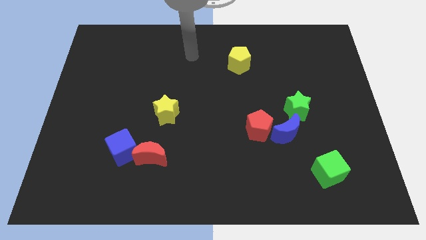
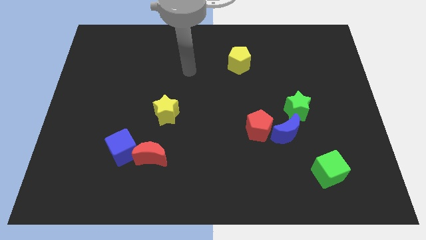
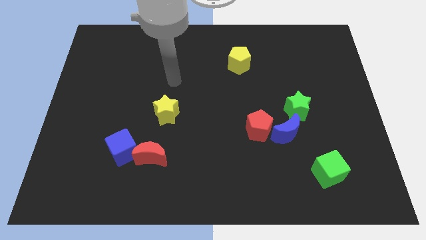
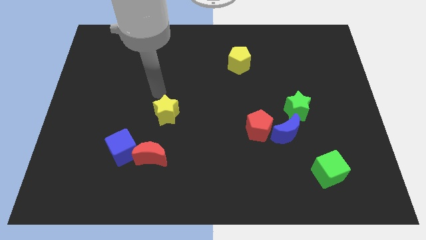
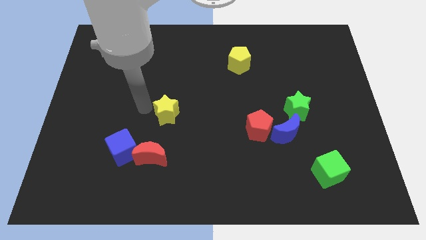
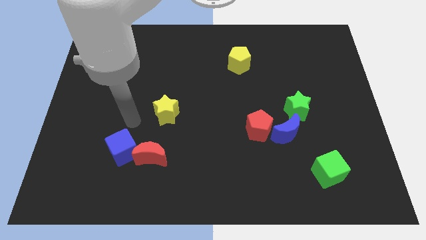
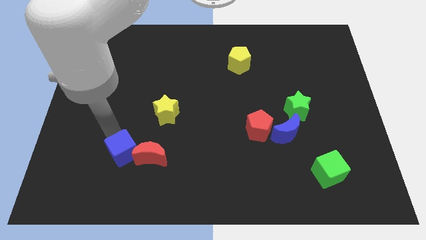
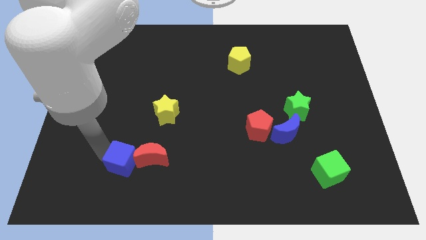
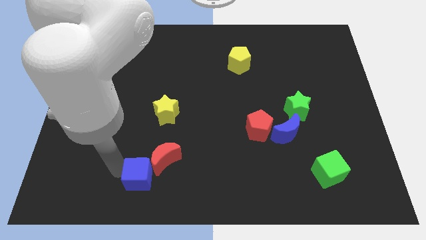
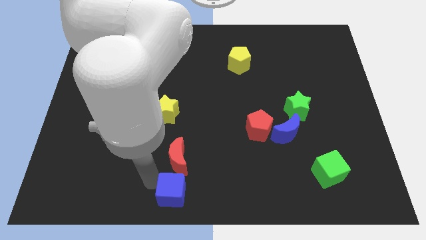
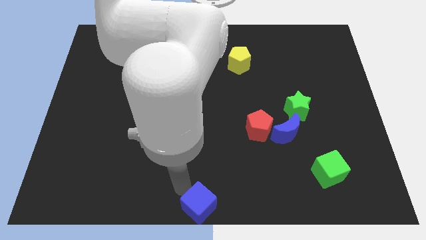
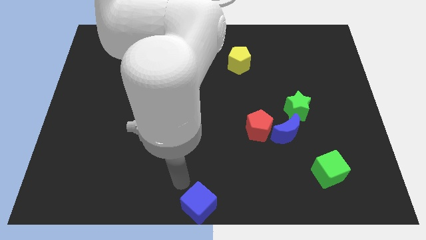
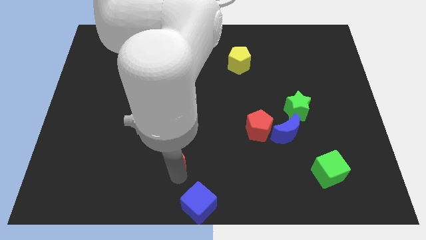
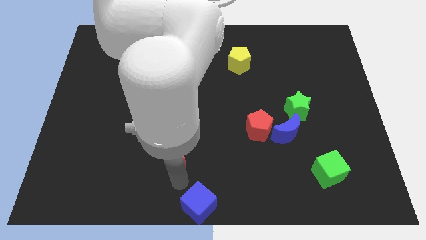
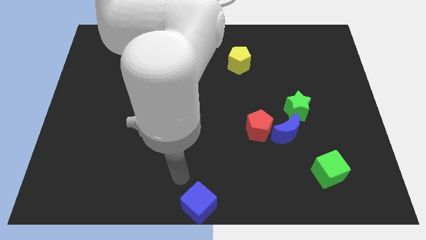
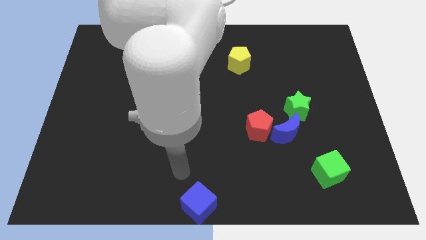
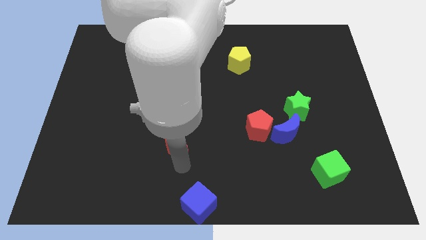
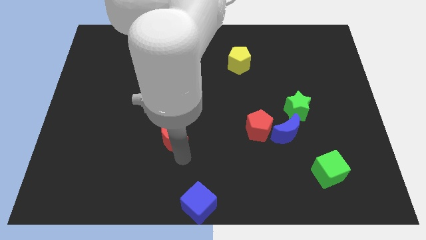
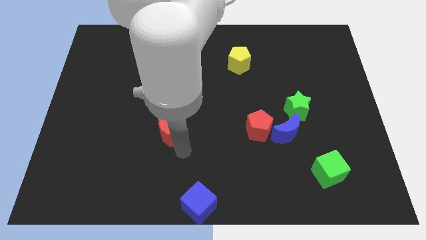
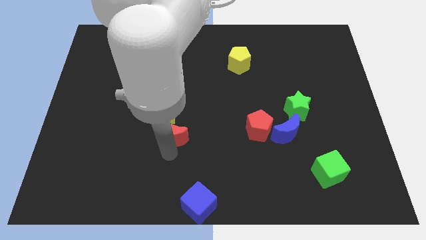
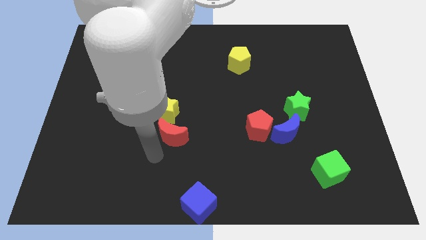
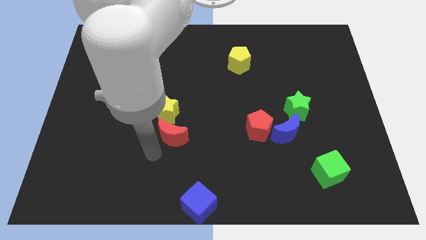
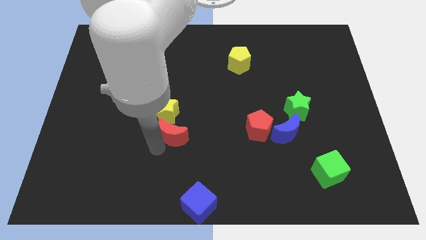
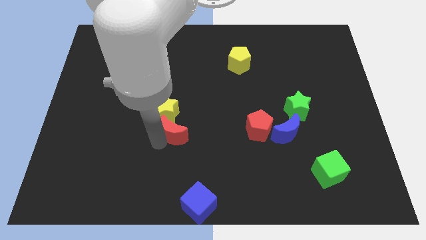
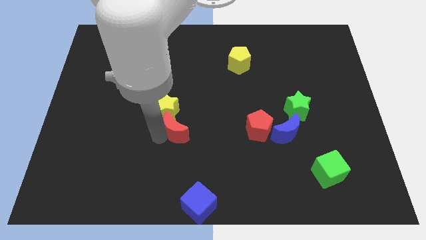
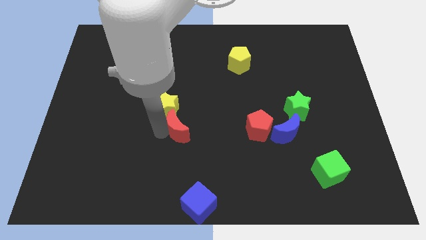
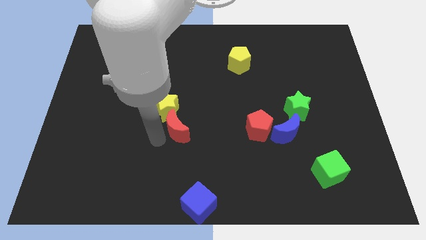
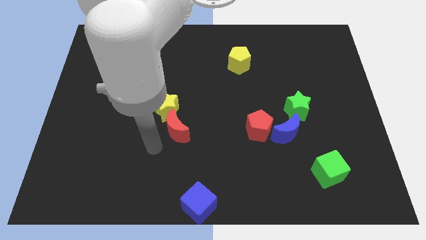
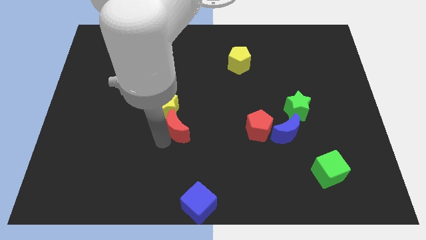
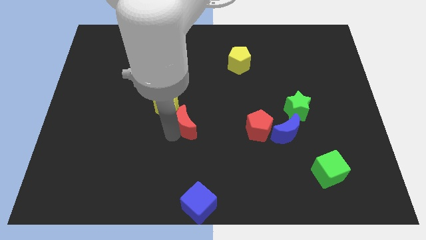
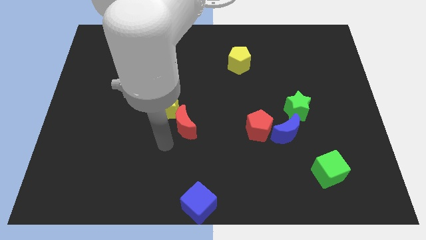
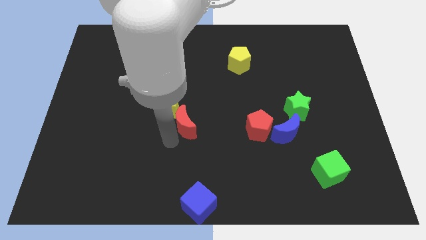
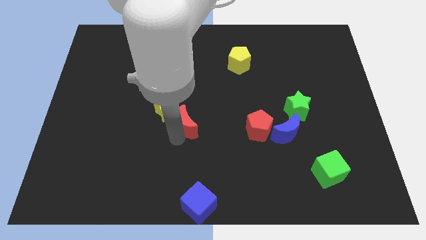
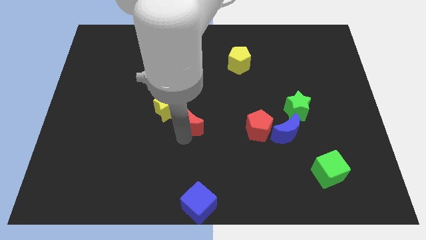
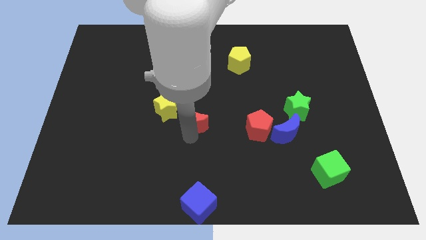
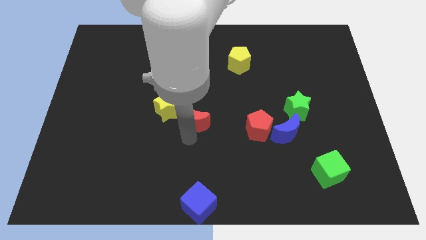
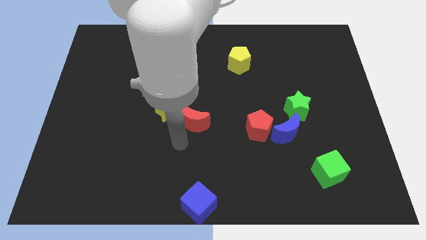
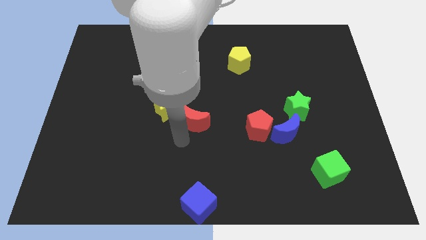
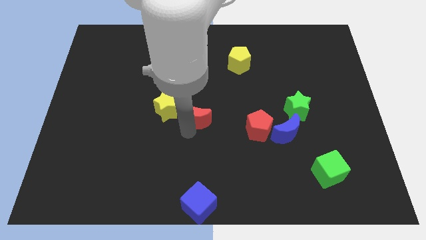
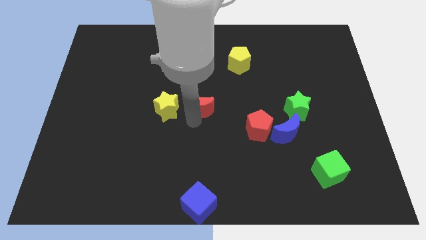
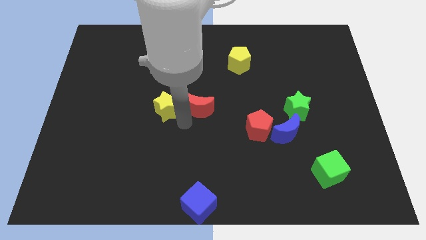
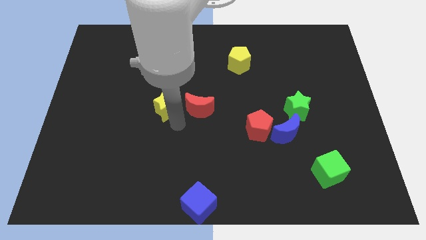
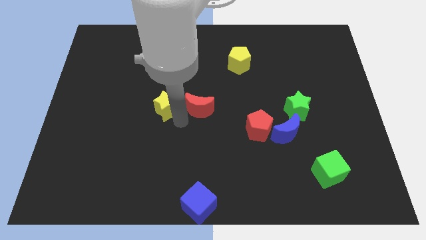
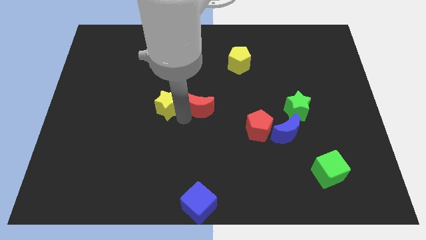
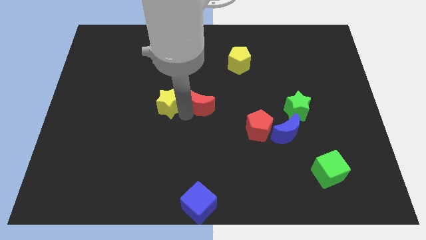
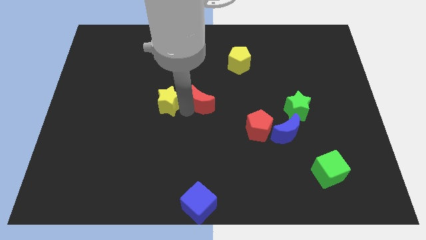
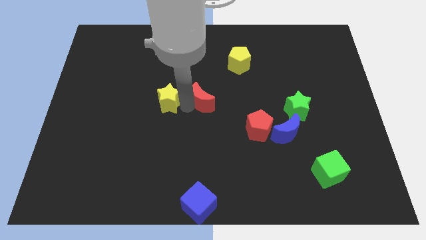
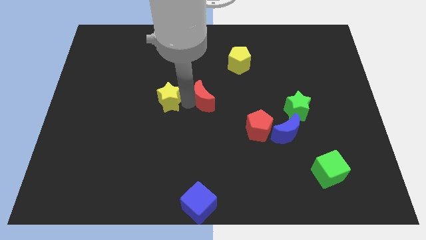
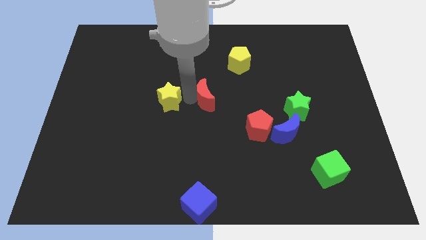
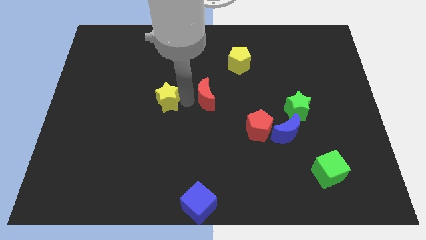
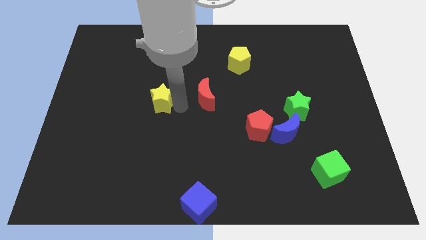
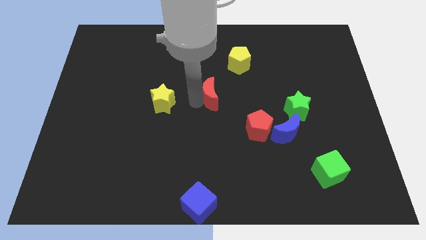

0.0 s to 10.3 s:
slide the red moon upwards and to the right diagonally

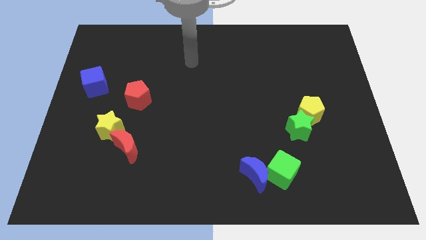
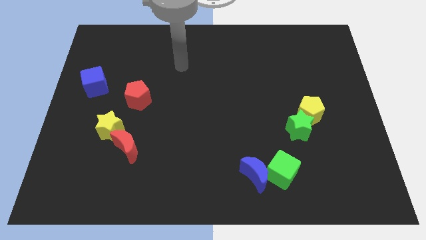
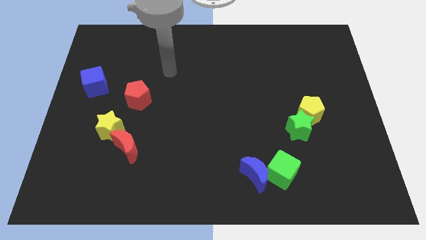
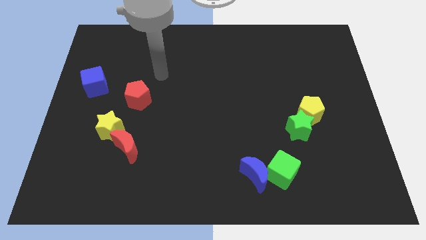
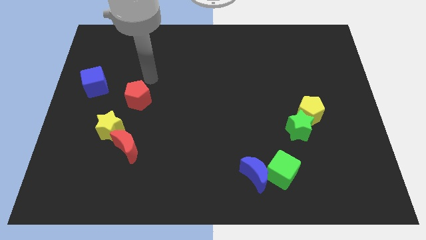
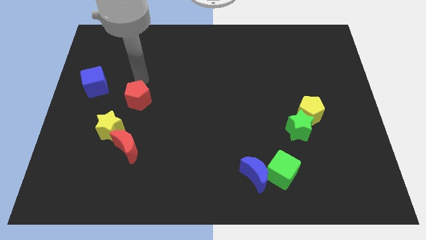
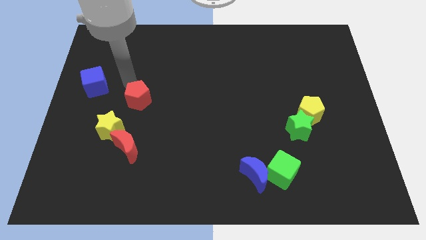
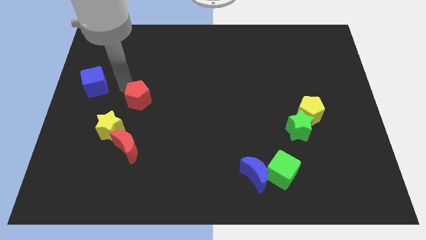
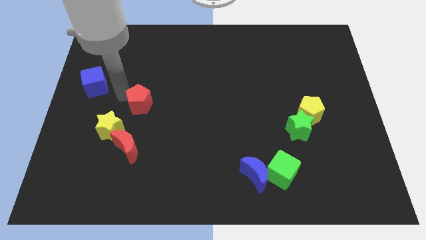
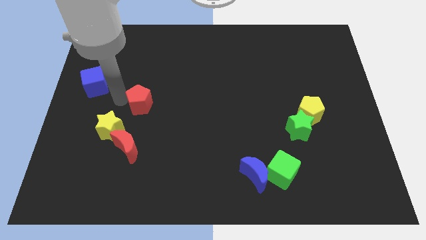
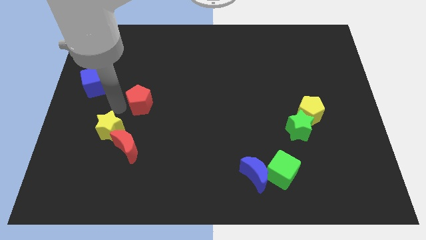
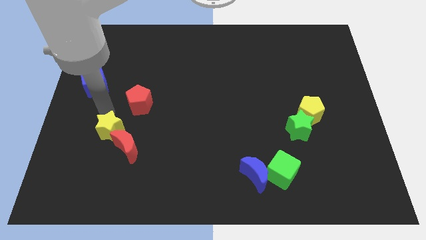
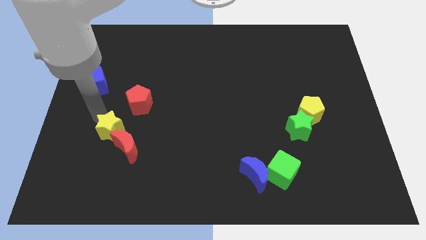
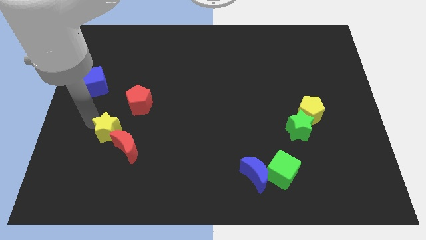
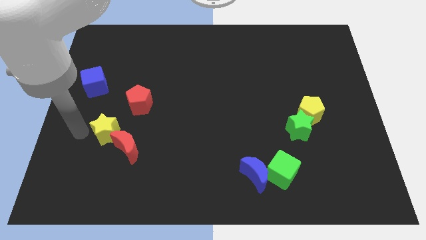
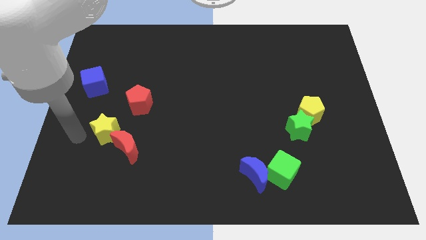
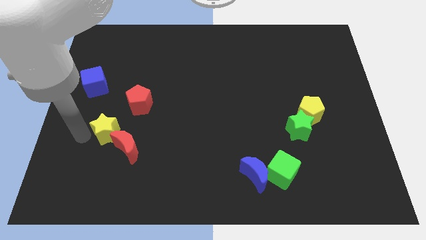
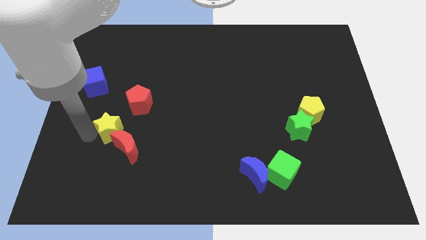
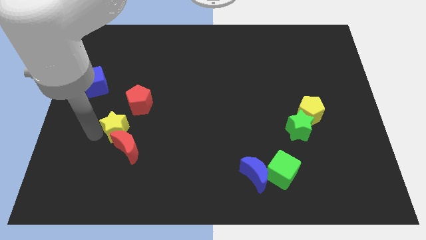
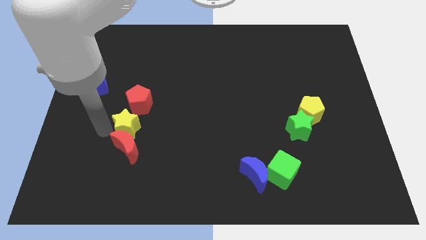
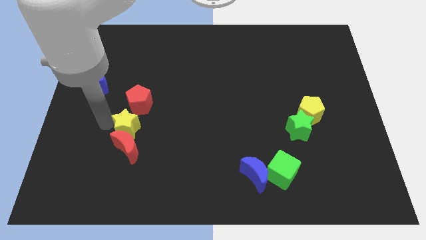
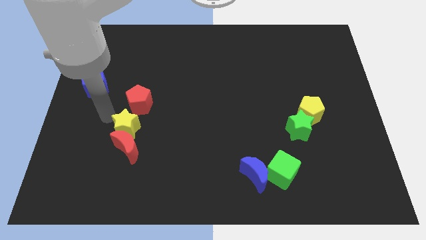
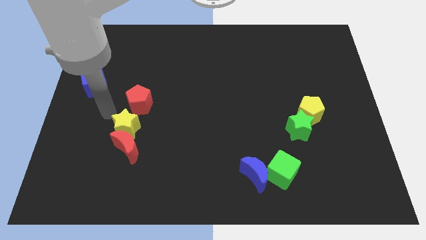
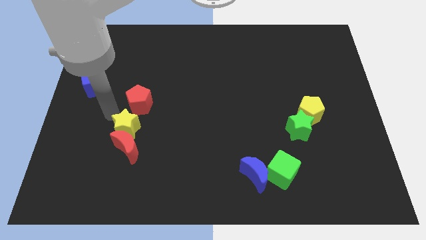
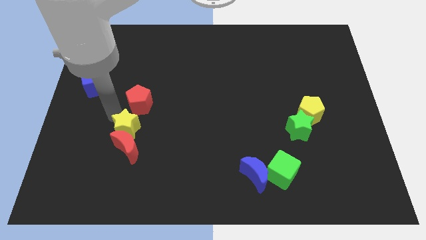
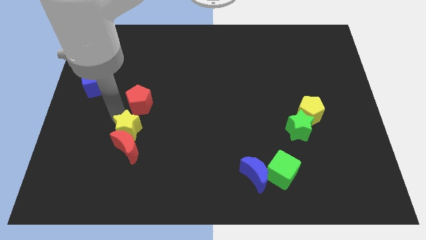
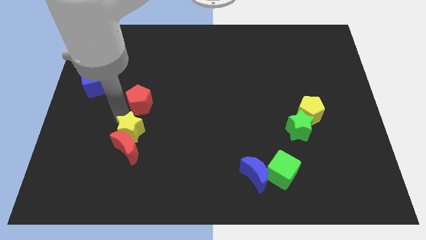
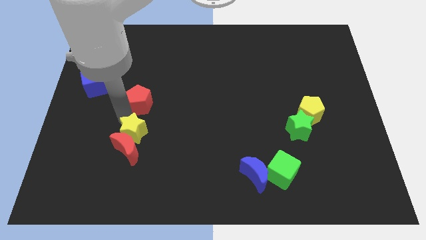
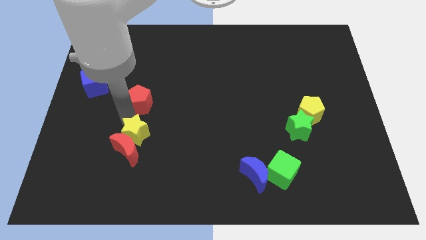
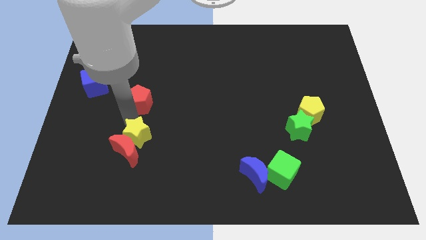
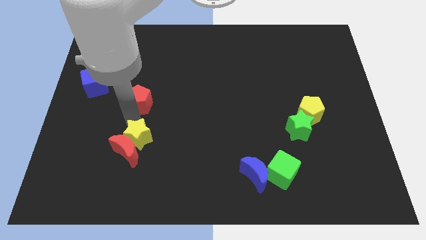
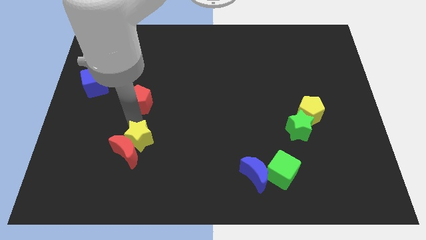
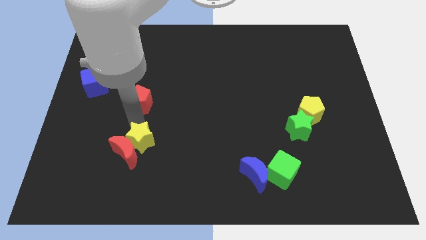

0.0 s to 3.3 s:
slightly push the yellow star down and right diagonally
